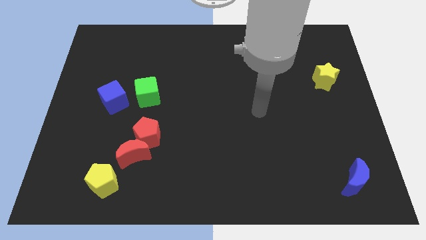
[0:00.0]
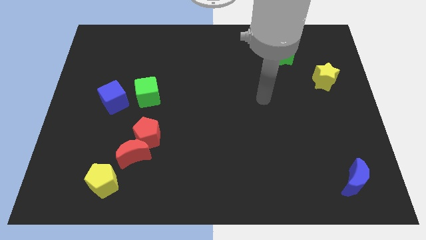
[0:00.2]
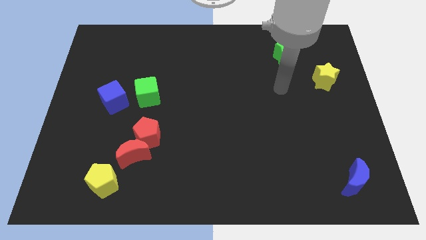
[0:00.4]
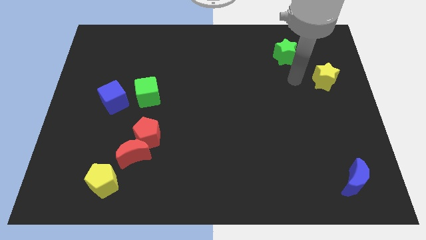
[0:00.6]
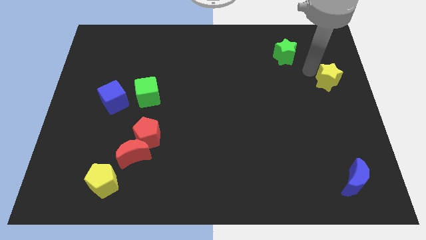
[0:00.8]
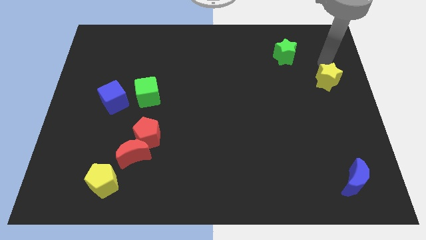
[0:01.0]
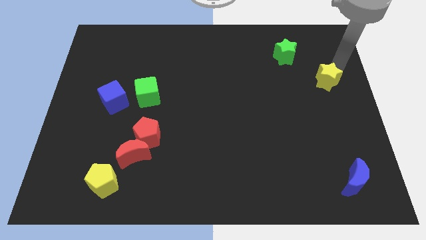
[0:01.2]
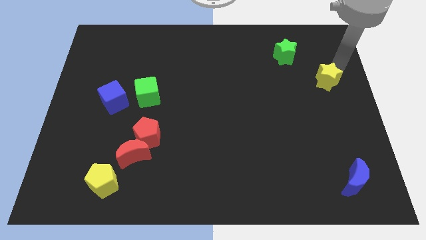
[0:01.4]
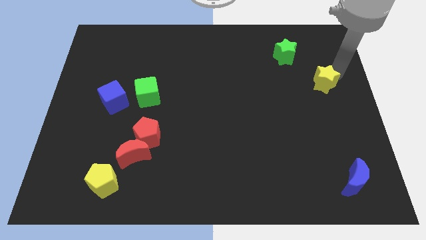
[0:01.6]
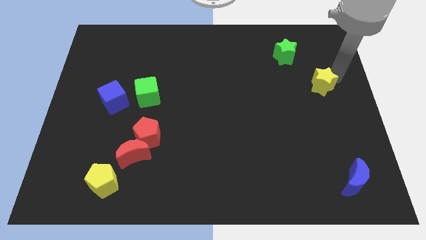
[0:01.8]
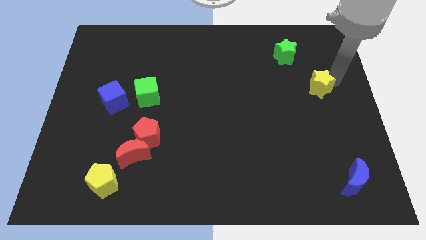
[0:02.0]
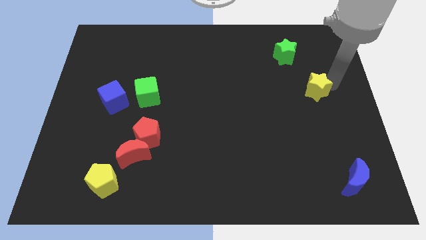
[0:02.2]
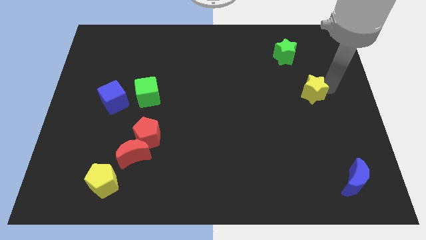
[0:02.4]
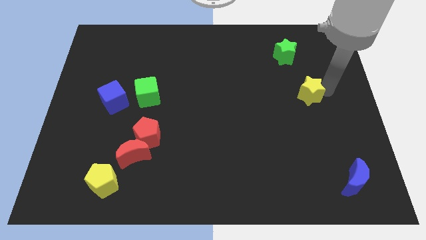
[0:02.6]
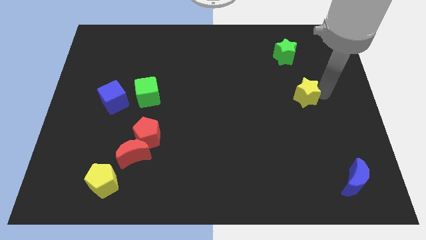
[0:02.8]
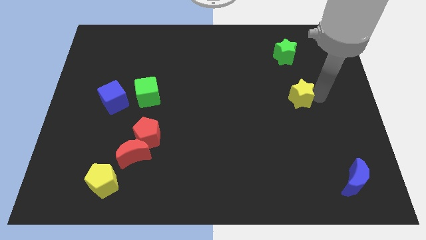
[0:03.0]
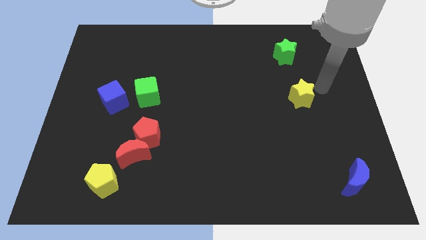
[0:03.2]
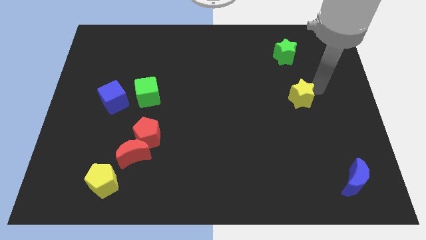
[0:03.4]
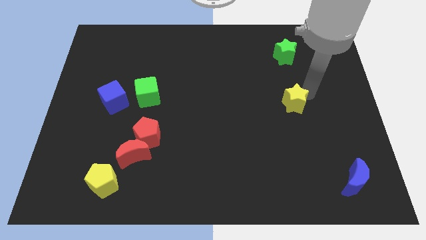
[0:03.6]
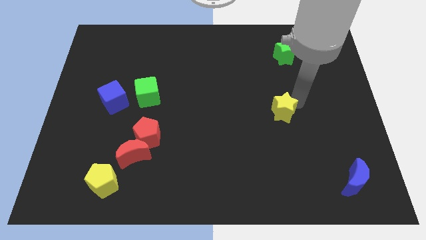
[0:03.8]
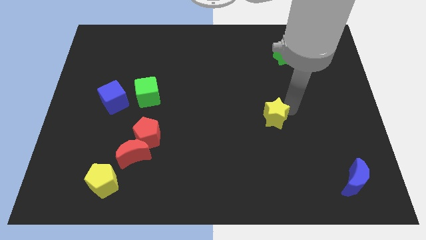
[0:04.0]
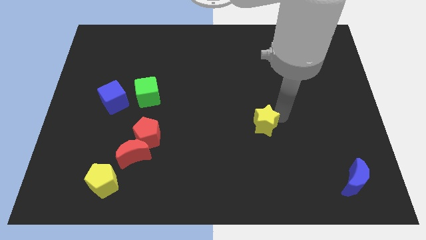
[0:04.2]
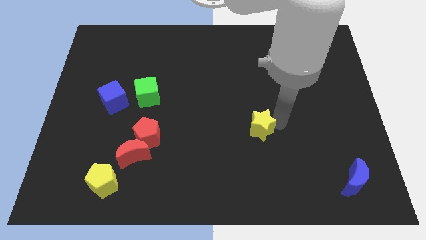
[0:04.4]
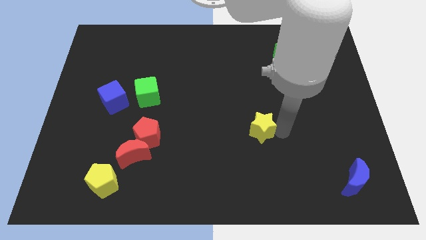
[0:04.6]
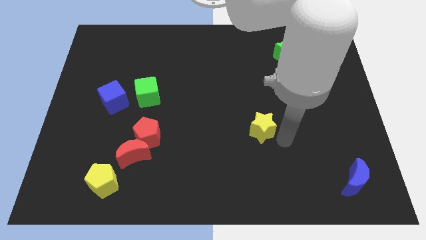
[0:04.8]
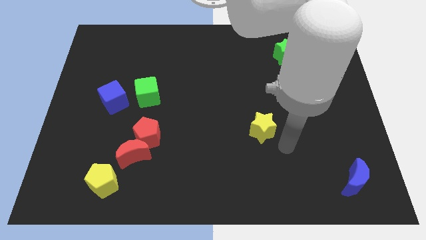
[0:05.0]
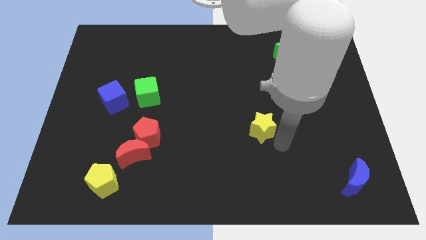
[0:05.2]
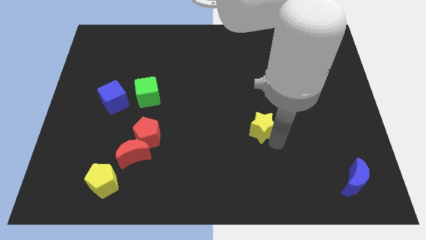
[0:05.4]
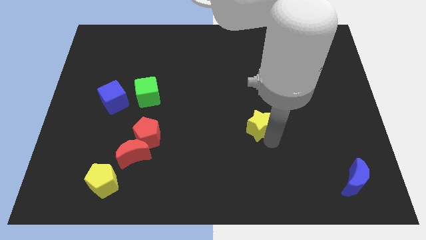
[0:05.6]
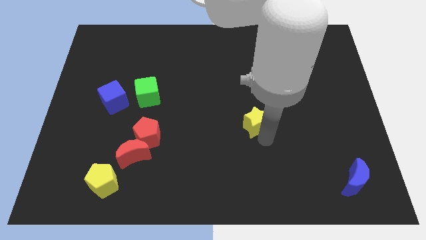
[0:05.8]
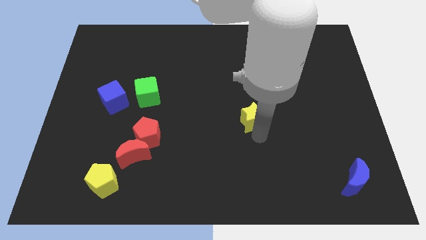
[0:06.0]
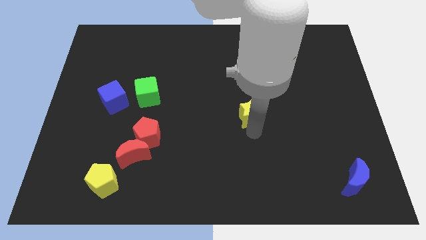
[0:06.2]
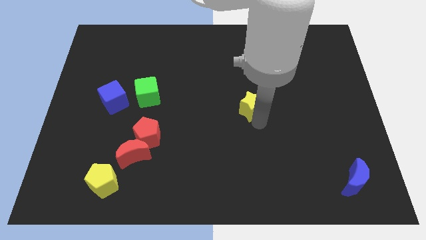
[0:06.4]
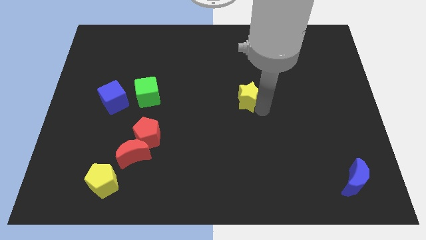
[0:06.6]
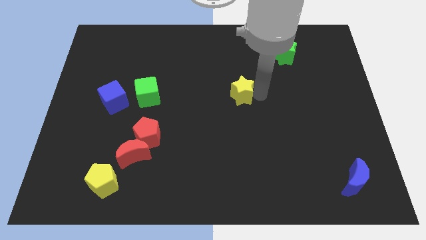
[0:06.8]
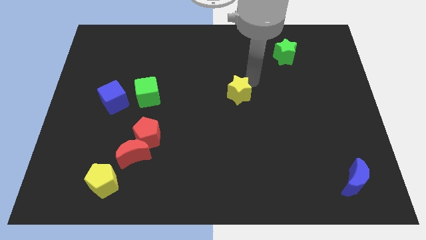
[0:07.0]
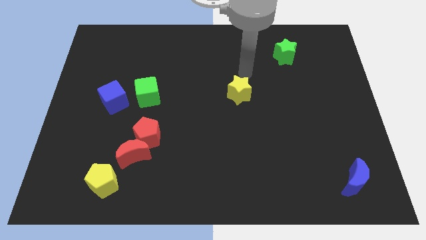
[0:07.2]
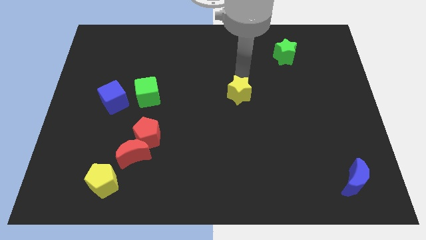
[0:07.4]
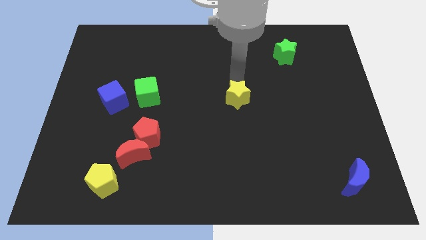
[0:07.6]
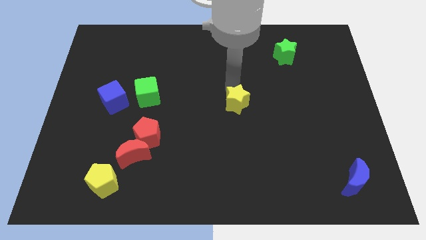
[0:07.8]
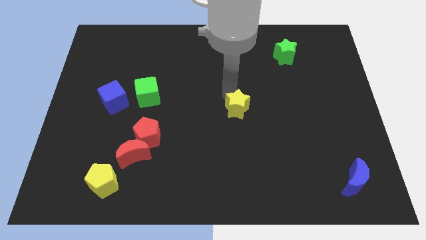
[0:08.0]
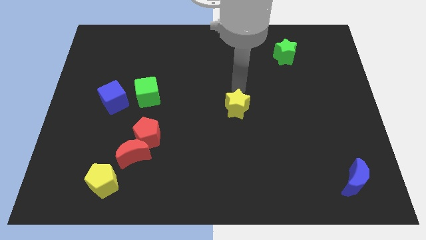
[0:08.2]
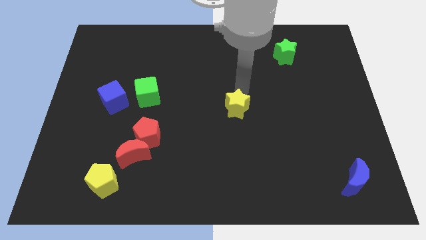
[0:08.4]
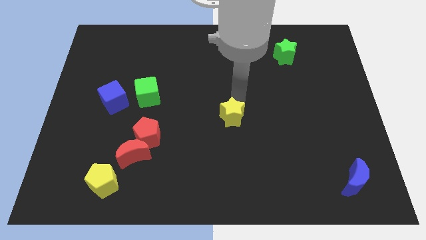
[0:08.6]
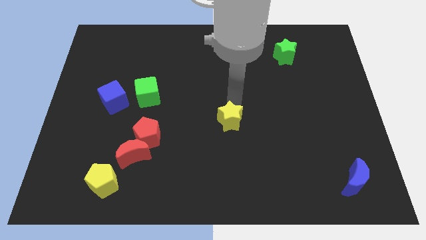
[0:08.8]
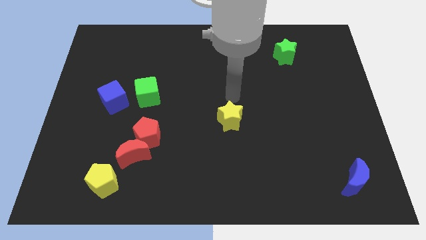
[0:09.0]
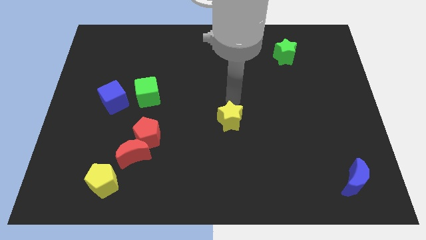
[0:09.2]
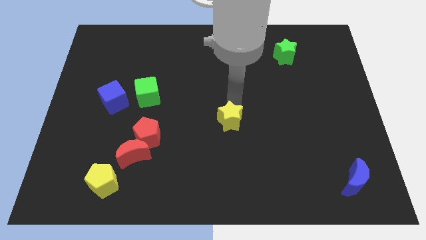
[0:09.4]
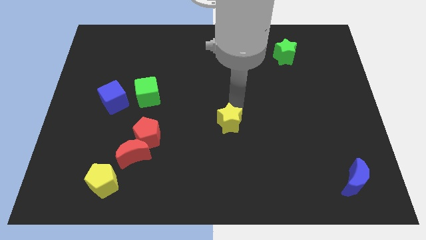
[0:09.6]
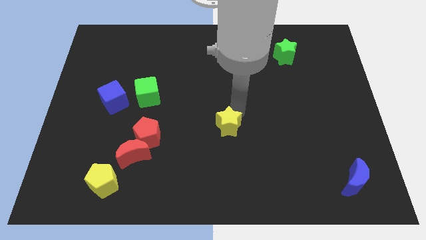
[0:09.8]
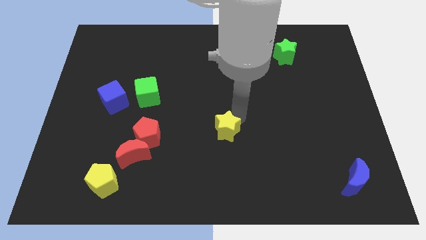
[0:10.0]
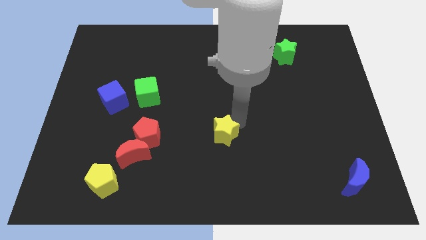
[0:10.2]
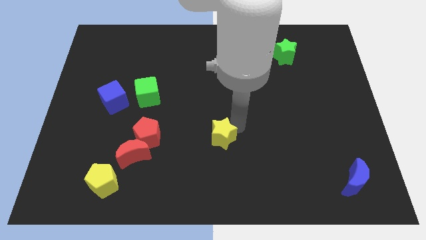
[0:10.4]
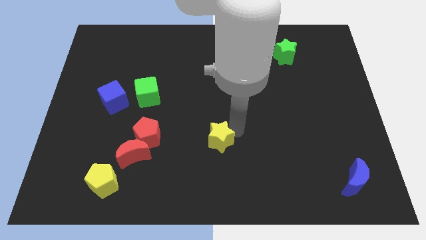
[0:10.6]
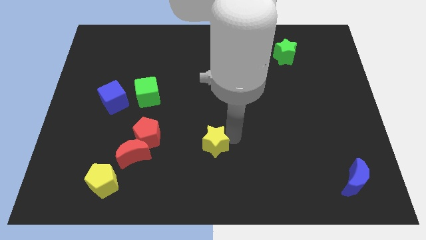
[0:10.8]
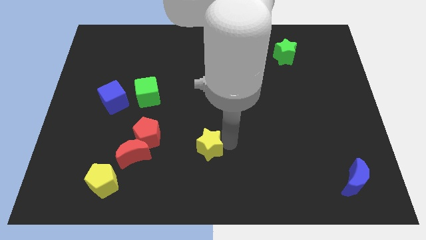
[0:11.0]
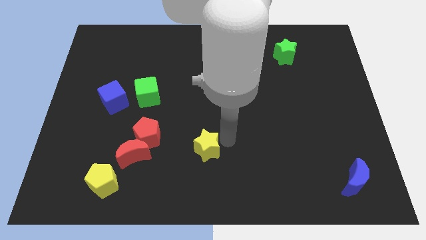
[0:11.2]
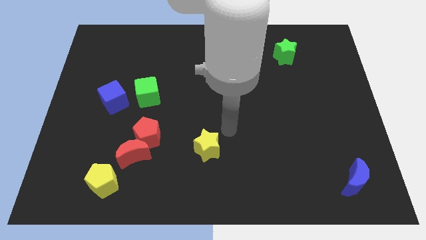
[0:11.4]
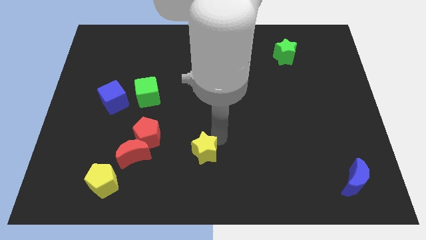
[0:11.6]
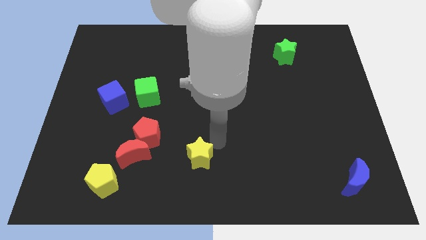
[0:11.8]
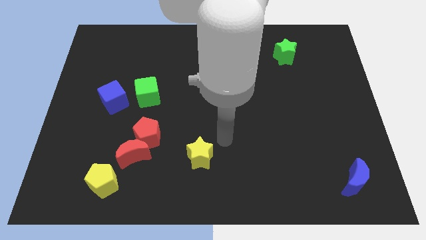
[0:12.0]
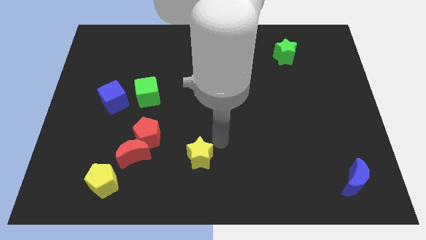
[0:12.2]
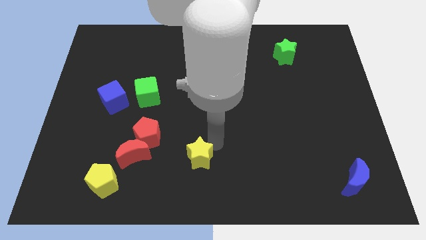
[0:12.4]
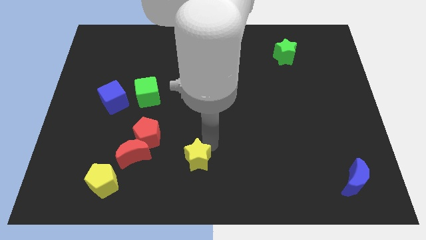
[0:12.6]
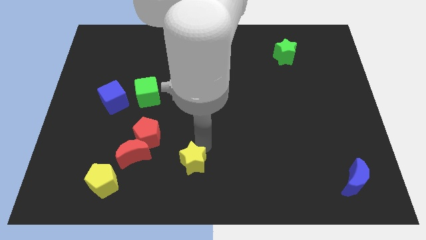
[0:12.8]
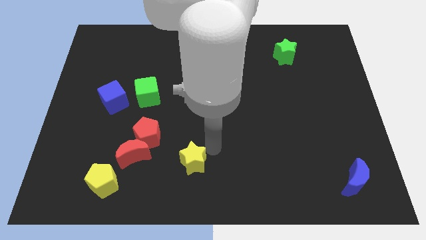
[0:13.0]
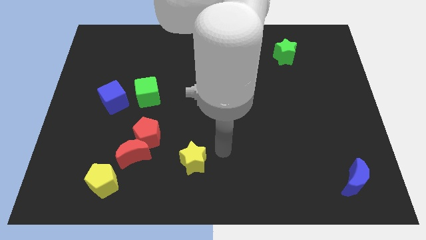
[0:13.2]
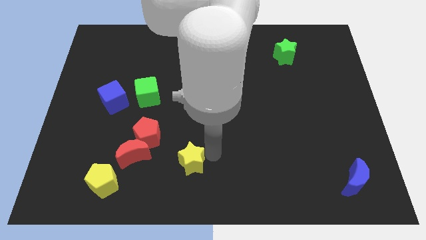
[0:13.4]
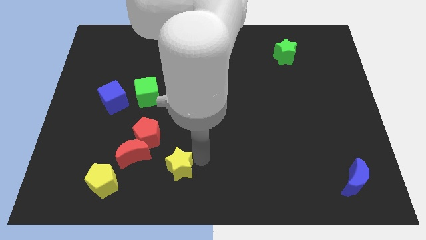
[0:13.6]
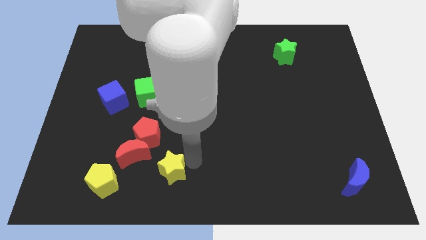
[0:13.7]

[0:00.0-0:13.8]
slide the yellow star to the bottom right side of the red moon
